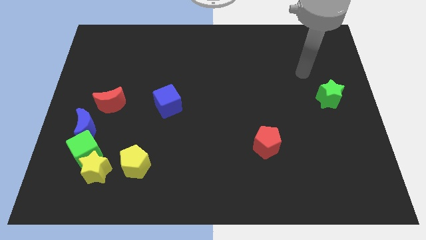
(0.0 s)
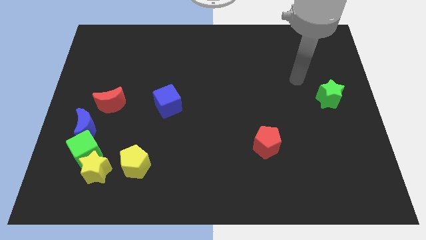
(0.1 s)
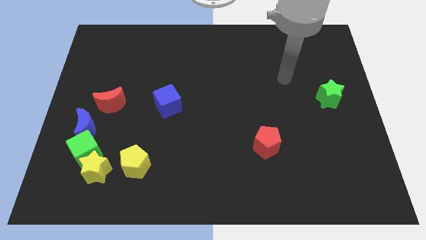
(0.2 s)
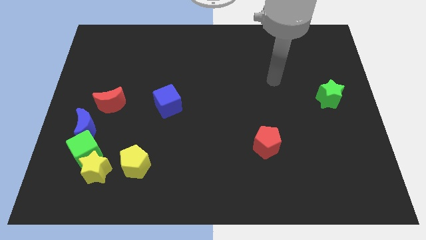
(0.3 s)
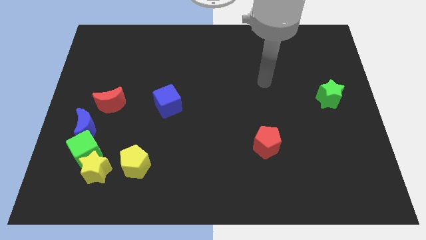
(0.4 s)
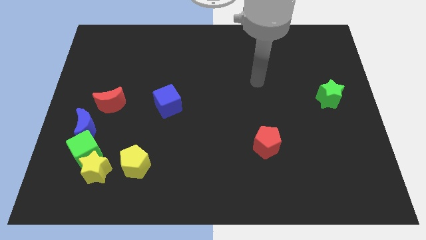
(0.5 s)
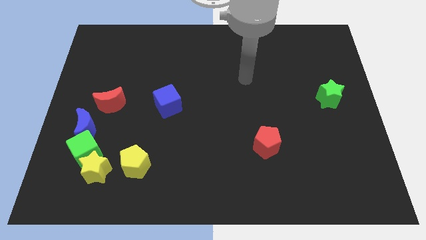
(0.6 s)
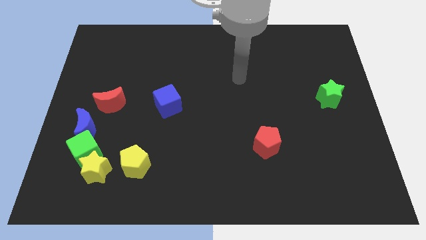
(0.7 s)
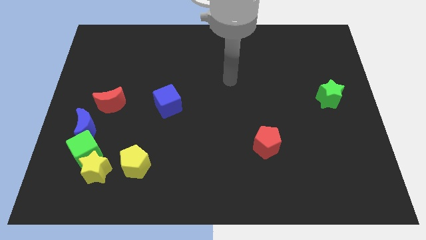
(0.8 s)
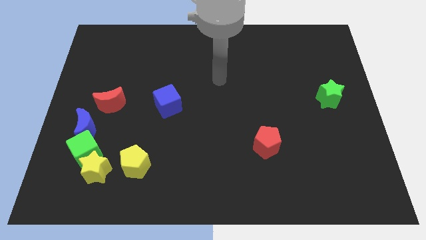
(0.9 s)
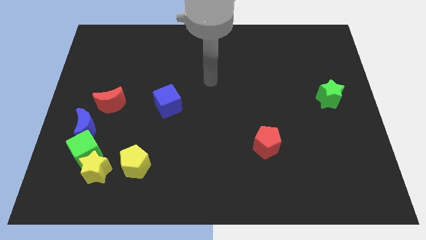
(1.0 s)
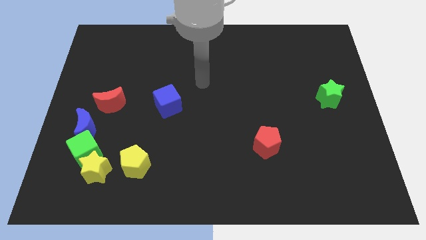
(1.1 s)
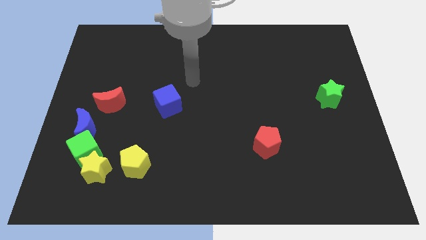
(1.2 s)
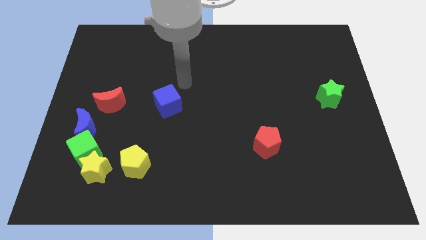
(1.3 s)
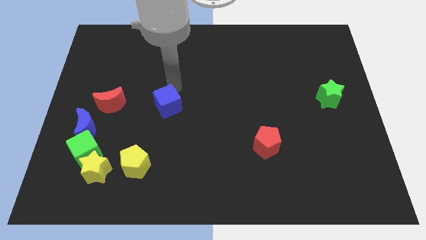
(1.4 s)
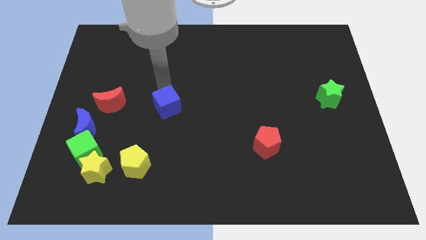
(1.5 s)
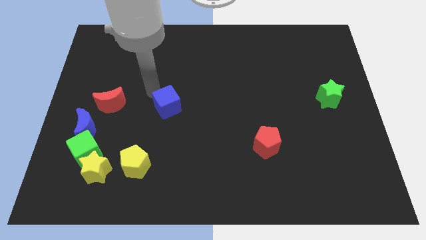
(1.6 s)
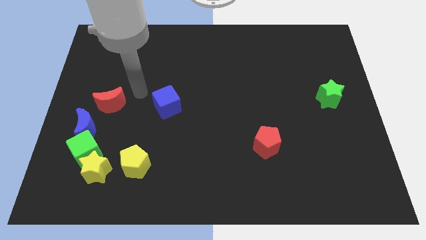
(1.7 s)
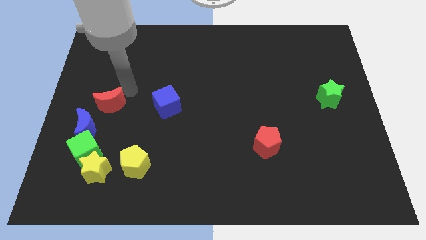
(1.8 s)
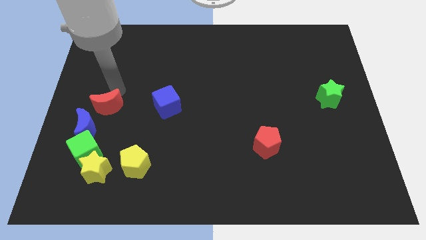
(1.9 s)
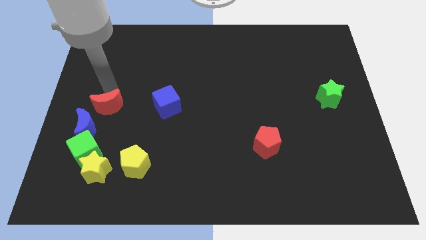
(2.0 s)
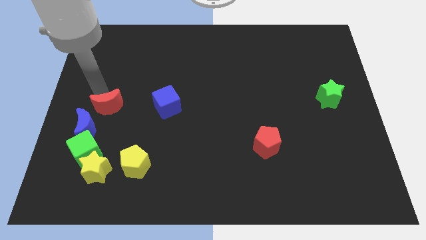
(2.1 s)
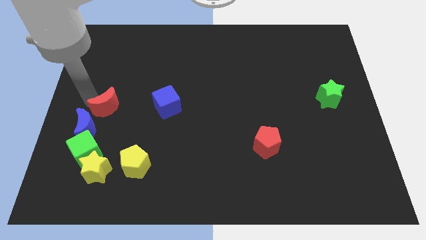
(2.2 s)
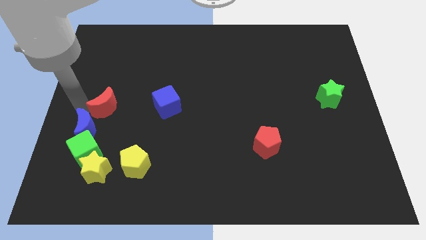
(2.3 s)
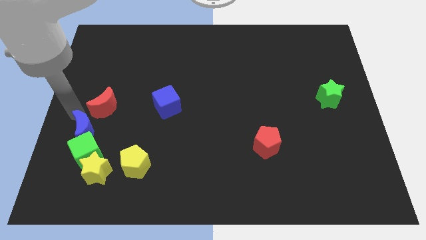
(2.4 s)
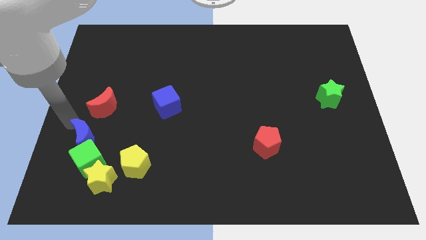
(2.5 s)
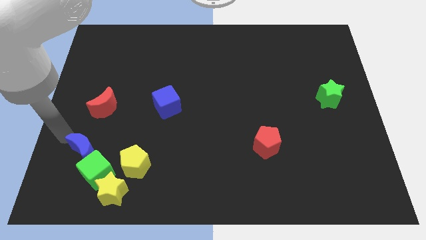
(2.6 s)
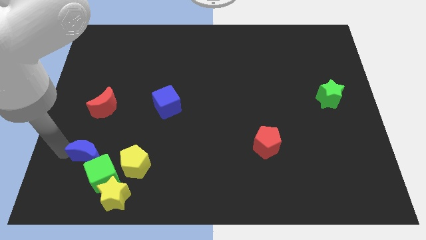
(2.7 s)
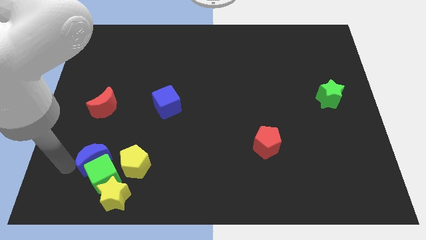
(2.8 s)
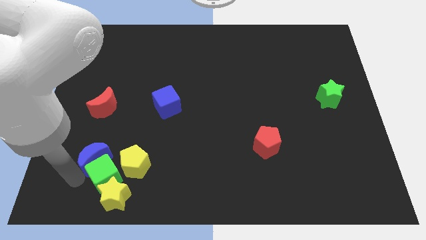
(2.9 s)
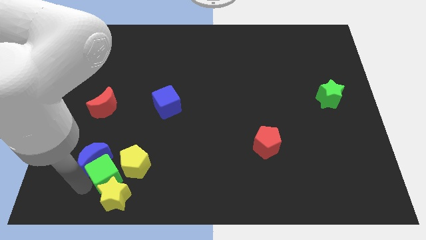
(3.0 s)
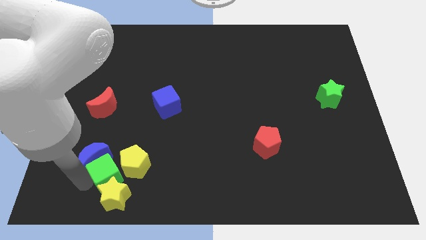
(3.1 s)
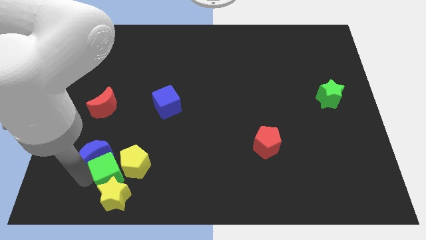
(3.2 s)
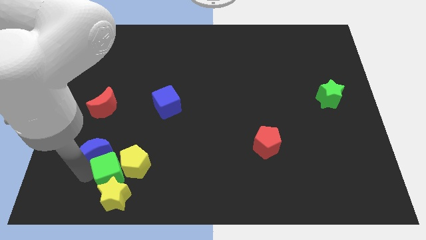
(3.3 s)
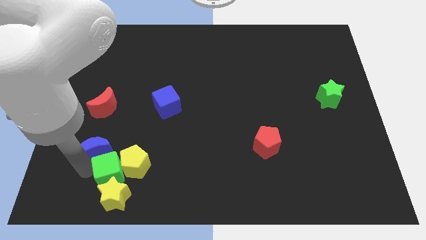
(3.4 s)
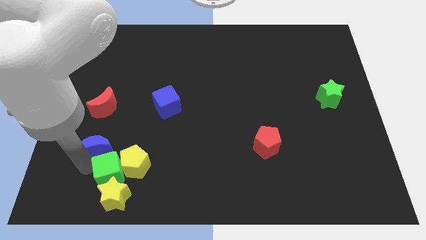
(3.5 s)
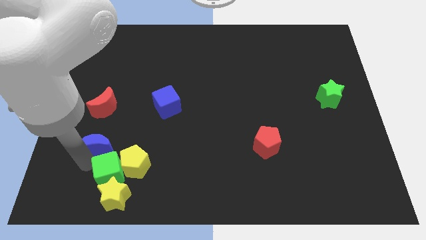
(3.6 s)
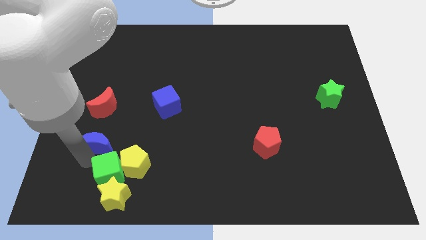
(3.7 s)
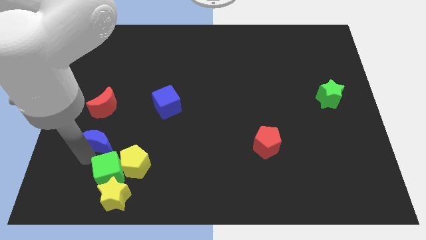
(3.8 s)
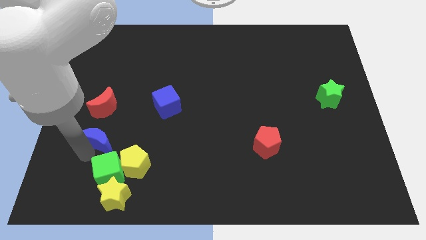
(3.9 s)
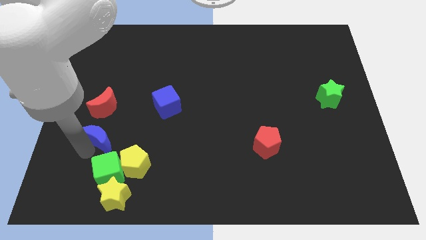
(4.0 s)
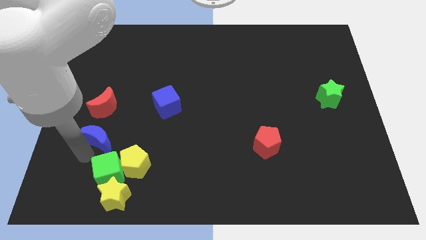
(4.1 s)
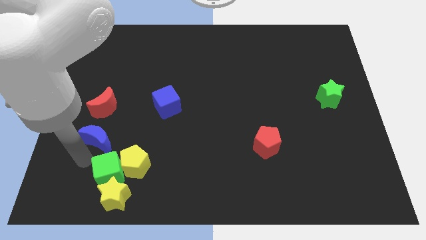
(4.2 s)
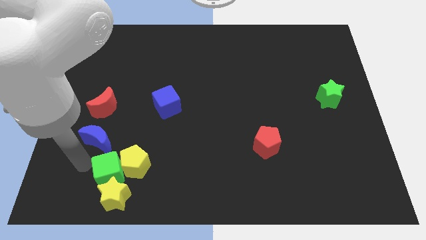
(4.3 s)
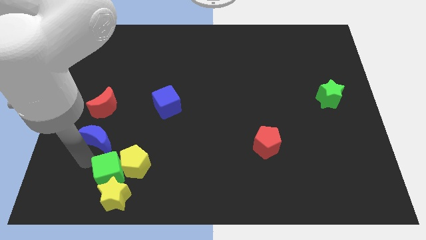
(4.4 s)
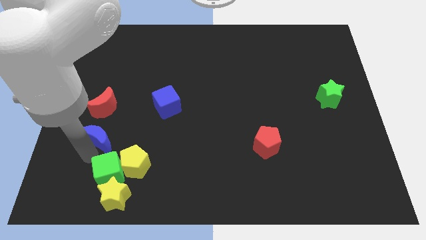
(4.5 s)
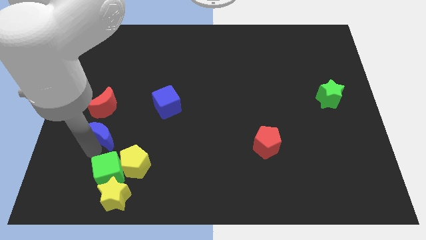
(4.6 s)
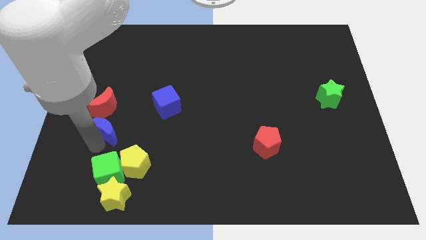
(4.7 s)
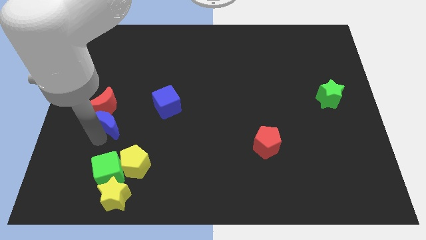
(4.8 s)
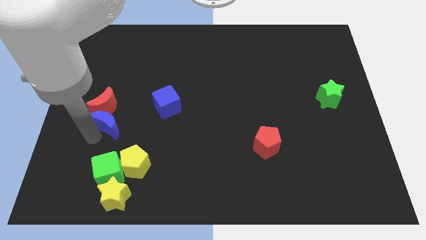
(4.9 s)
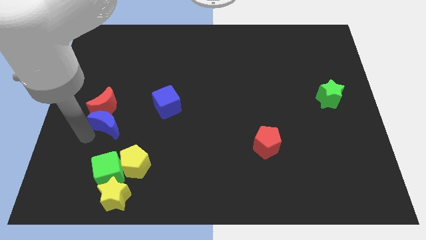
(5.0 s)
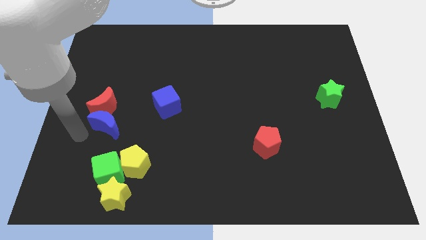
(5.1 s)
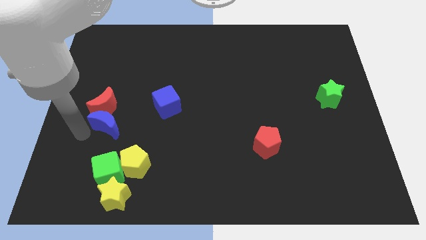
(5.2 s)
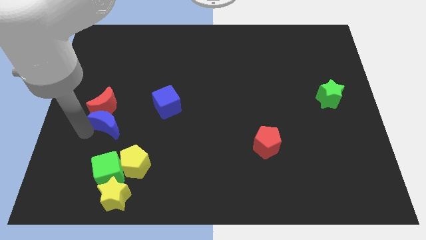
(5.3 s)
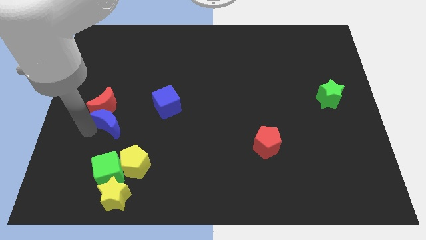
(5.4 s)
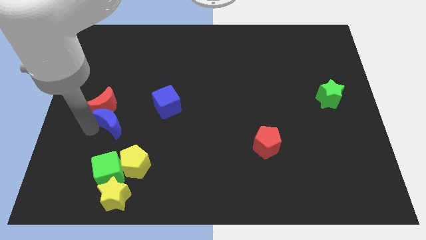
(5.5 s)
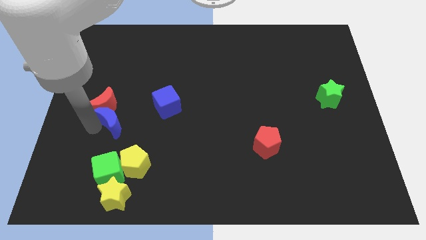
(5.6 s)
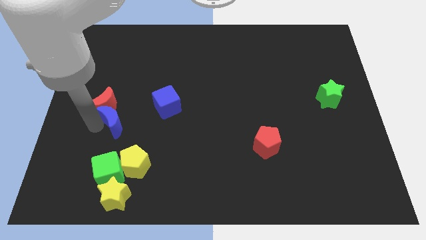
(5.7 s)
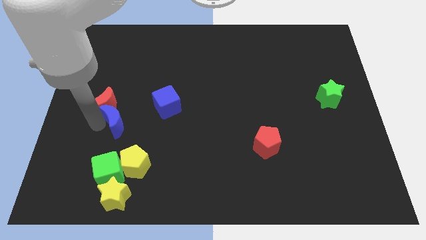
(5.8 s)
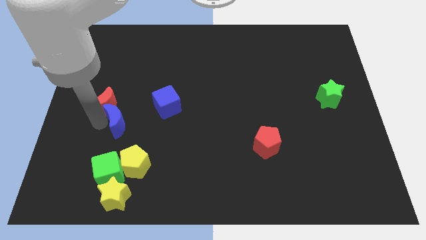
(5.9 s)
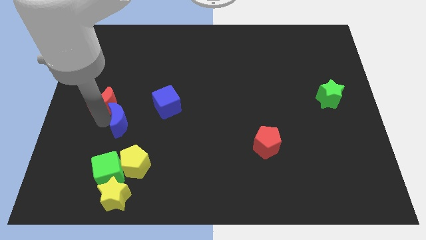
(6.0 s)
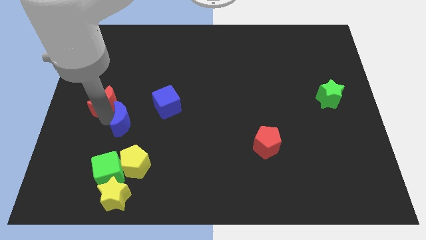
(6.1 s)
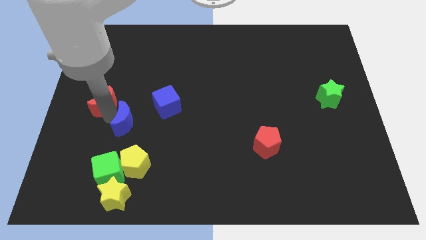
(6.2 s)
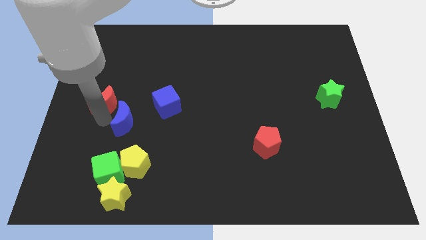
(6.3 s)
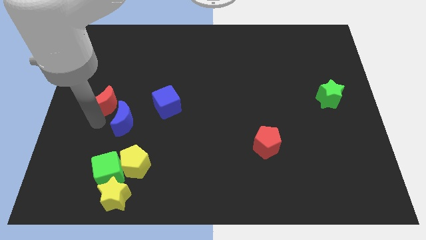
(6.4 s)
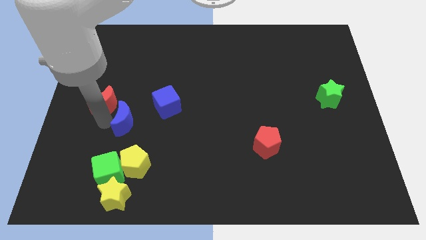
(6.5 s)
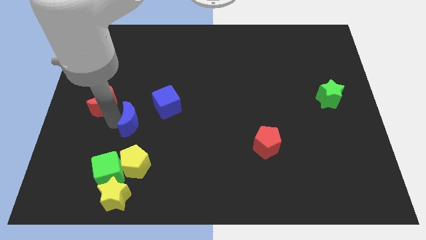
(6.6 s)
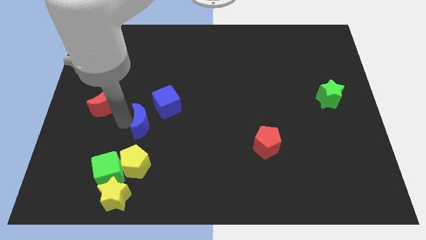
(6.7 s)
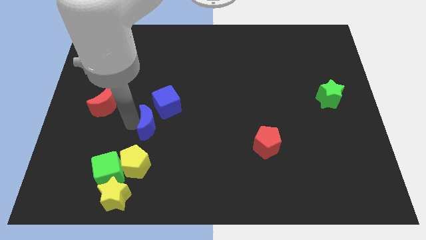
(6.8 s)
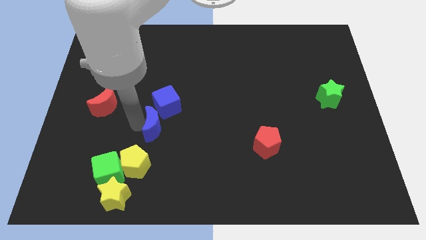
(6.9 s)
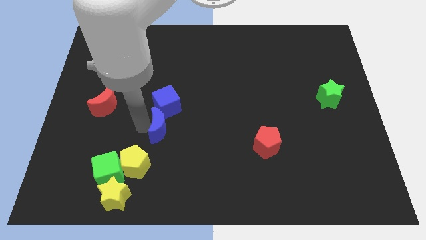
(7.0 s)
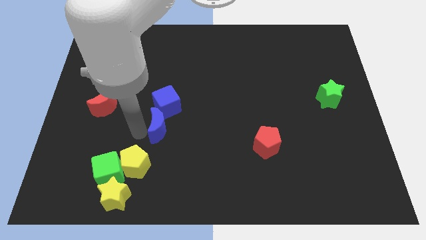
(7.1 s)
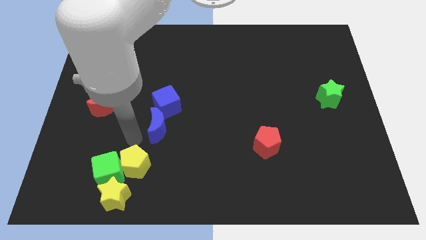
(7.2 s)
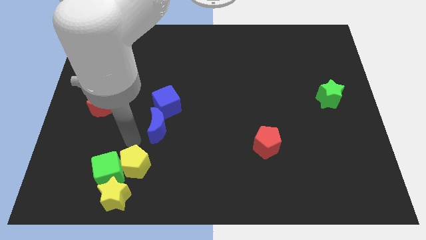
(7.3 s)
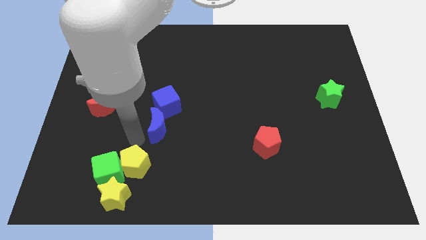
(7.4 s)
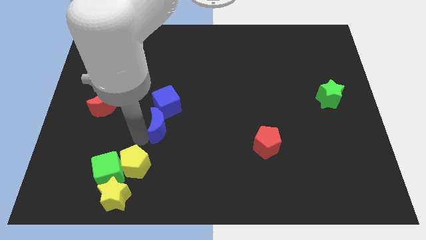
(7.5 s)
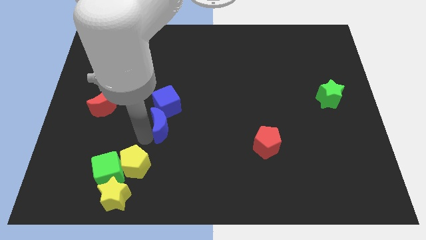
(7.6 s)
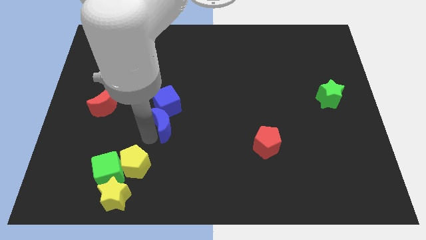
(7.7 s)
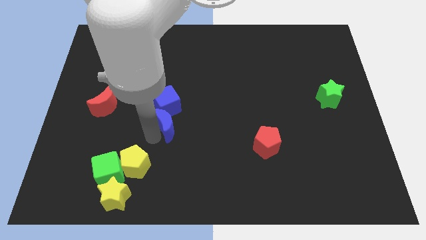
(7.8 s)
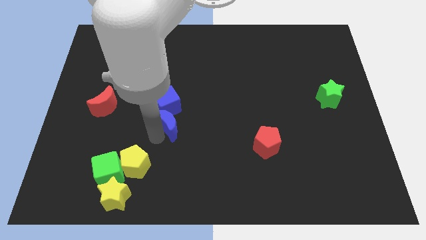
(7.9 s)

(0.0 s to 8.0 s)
slide the blue moon to the center
